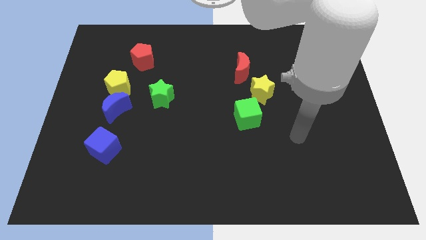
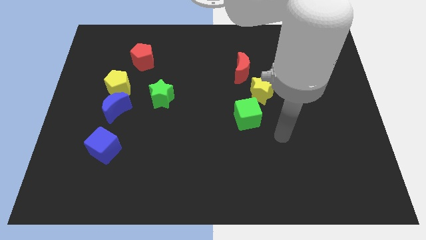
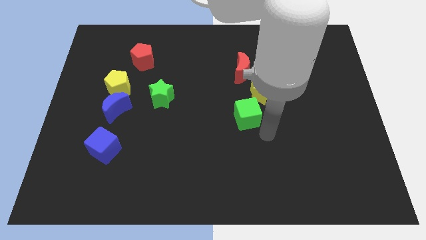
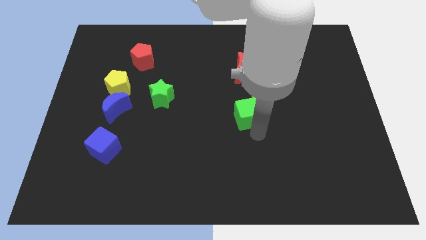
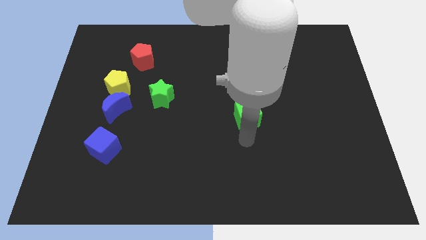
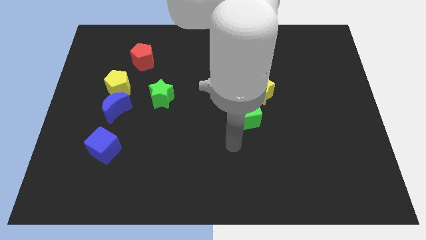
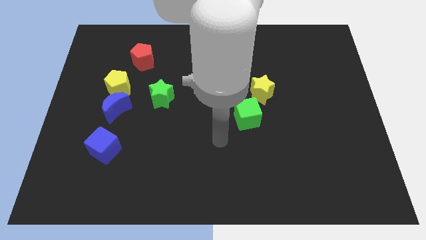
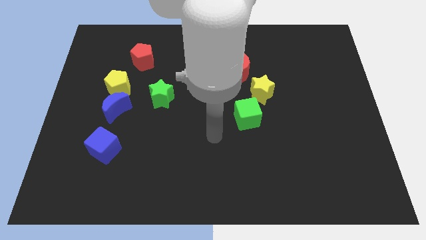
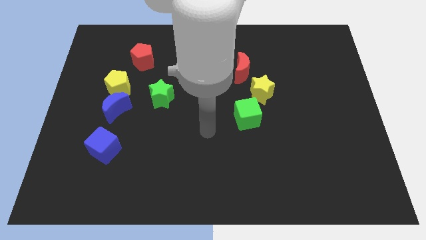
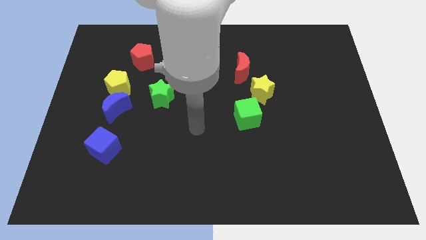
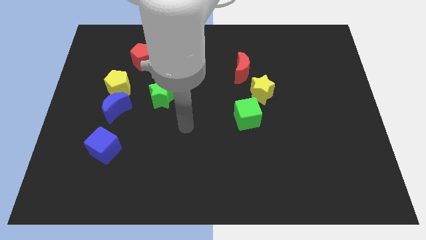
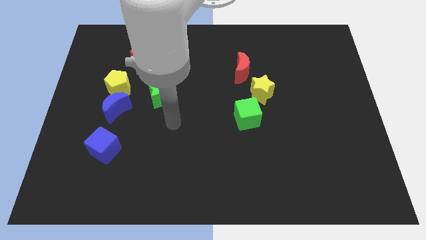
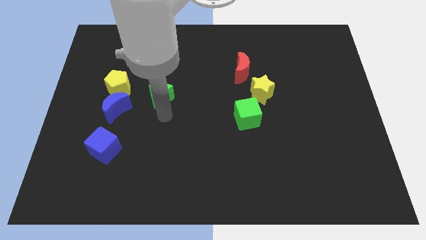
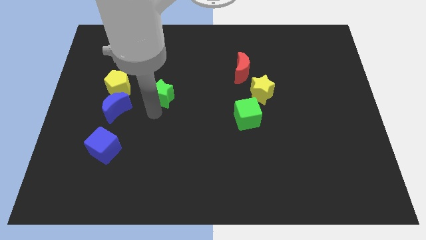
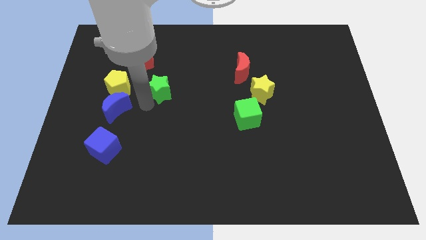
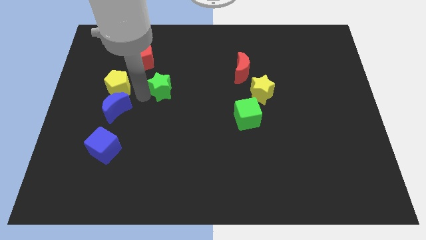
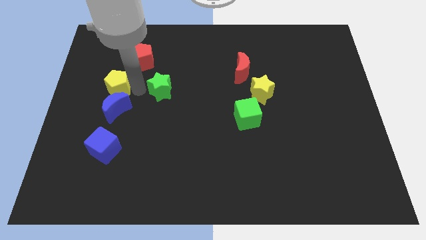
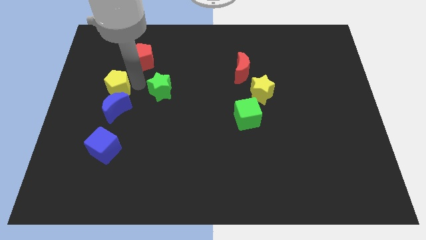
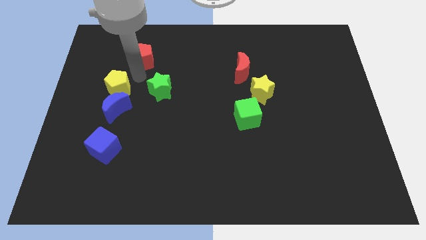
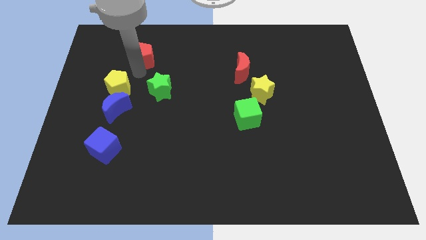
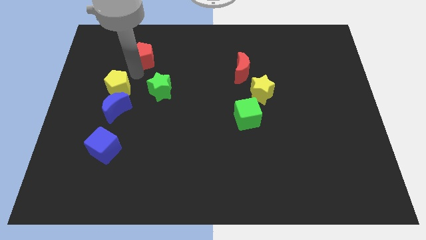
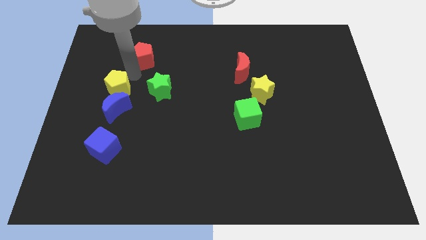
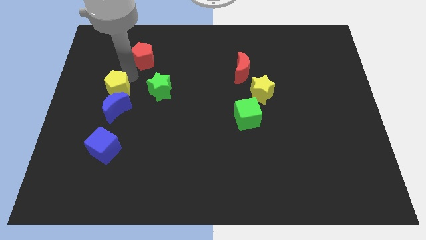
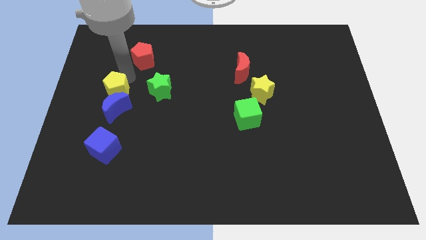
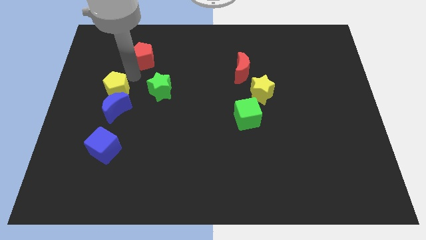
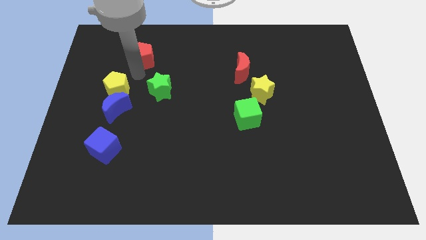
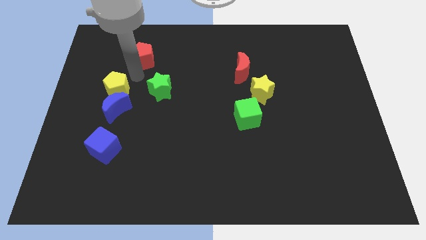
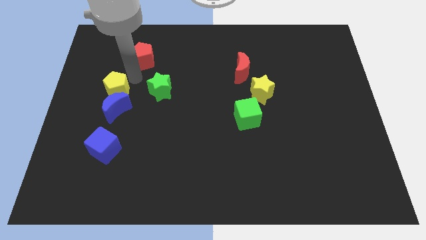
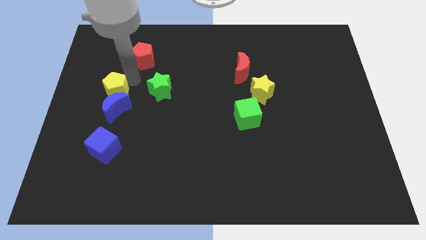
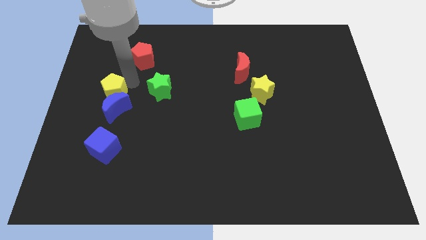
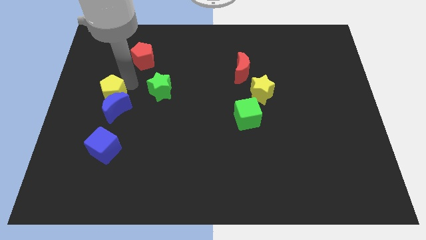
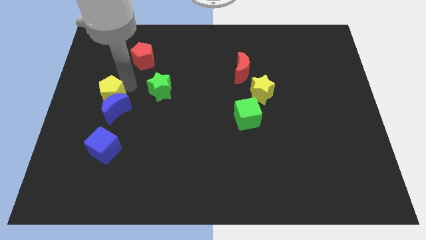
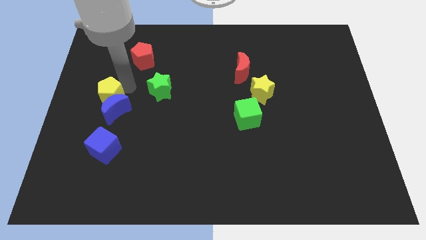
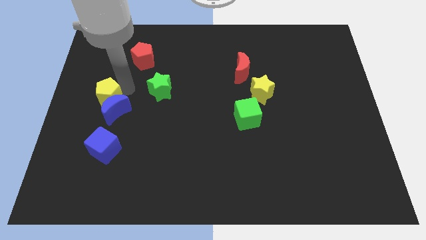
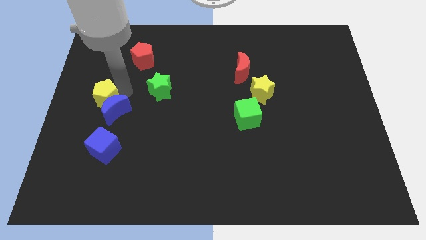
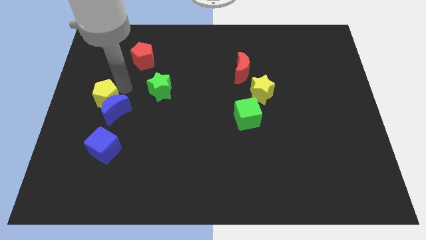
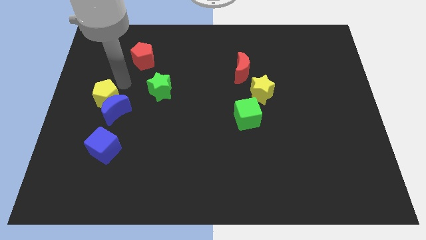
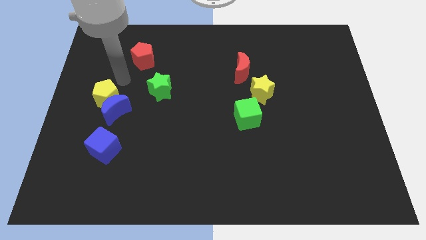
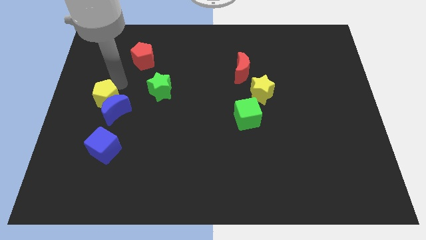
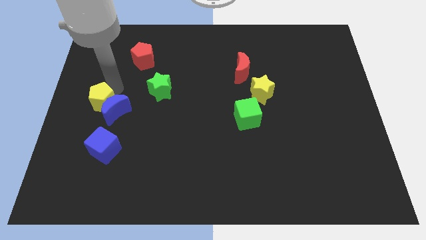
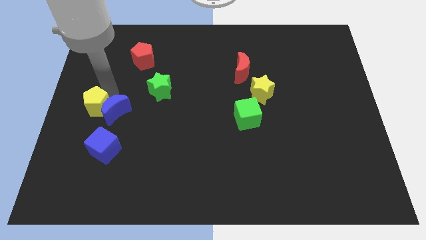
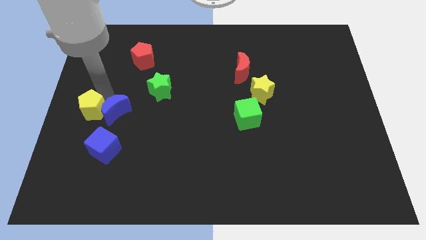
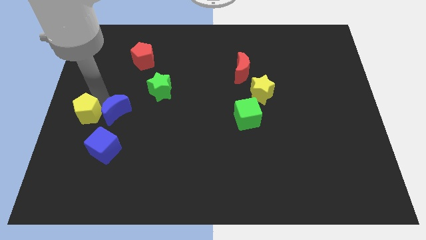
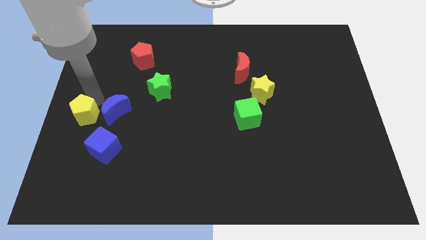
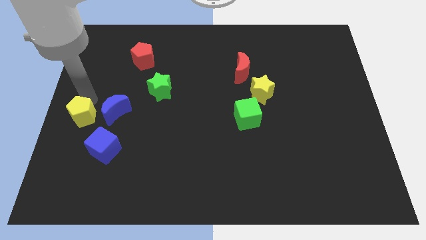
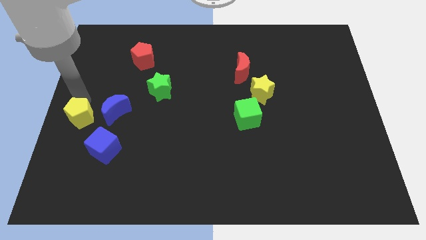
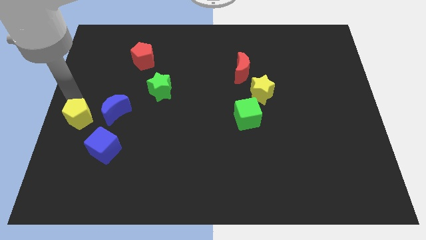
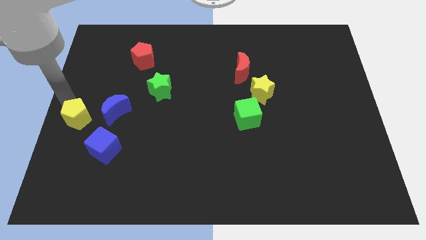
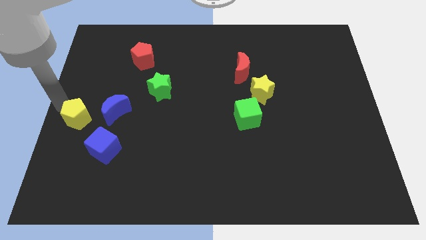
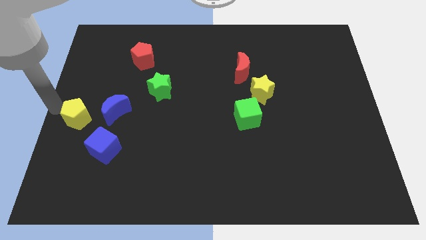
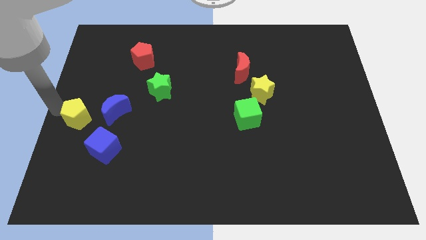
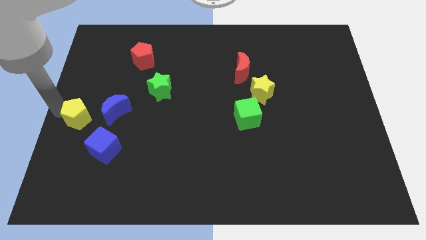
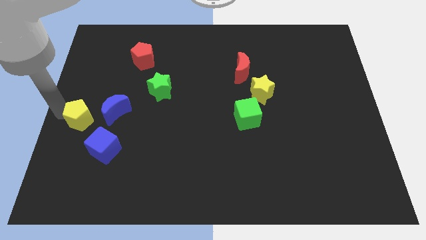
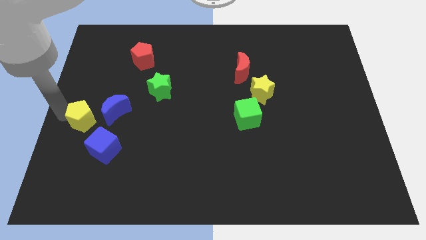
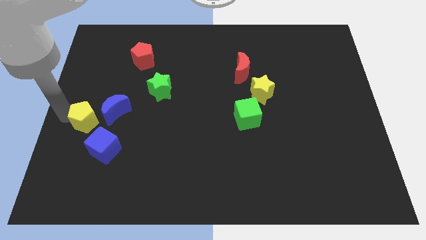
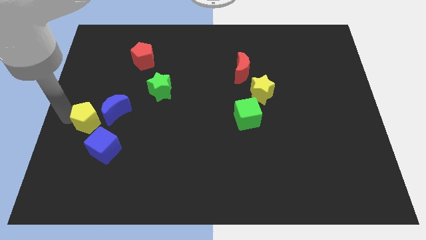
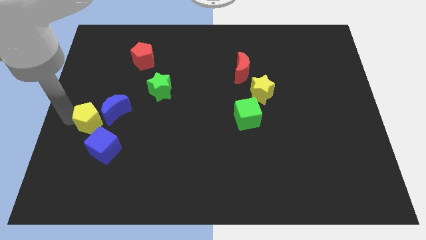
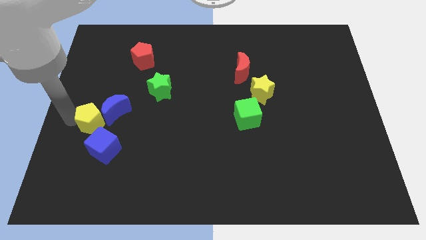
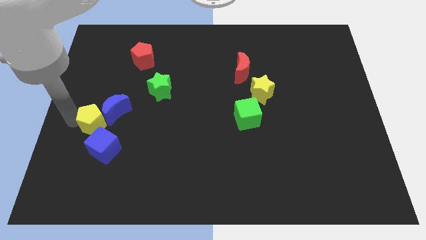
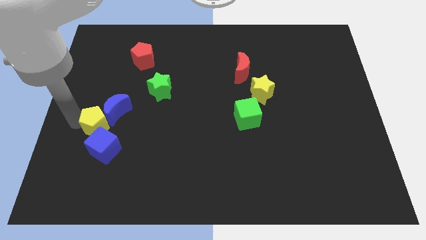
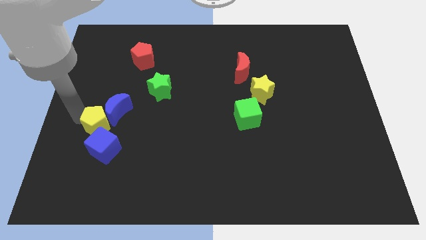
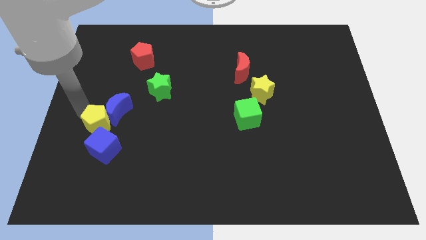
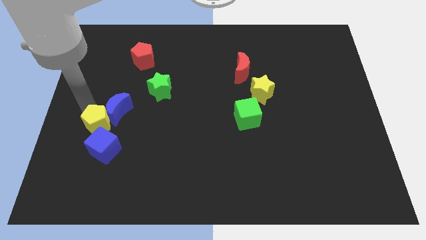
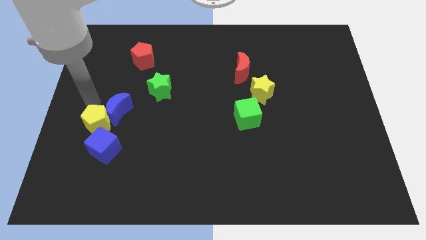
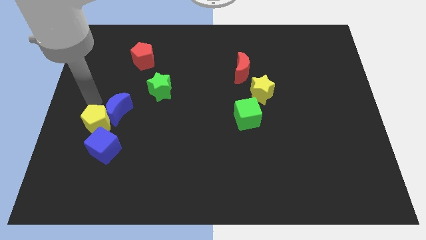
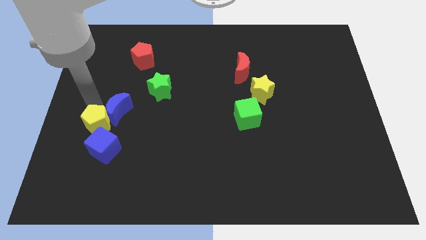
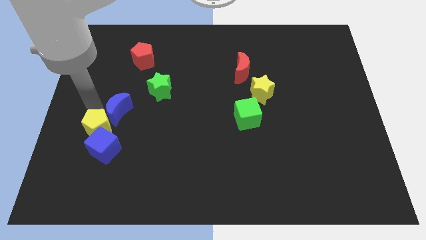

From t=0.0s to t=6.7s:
push the yellow pentagon to the blue cube

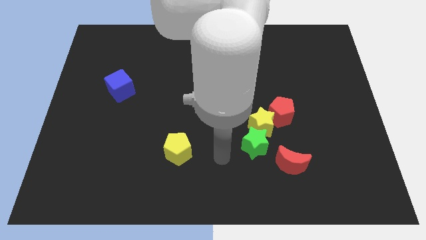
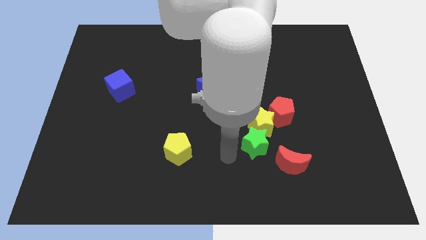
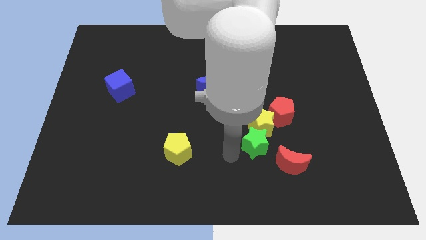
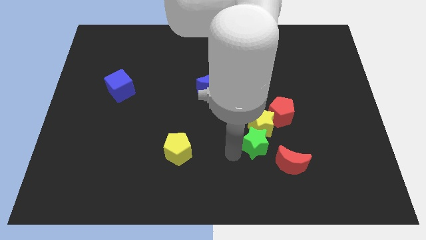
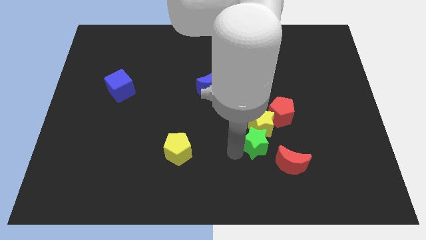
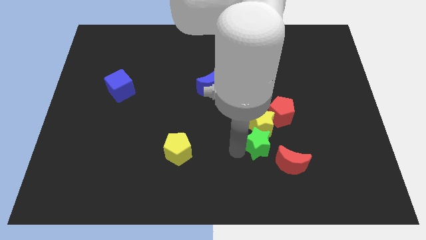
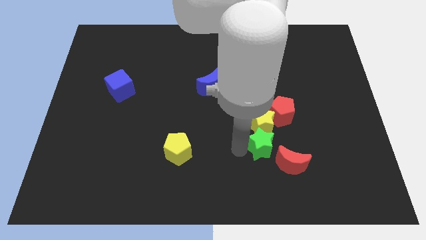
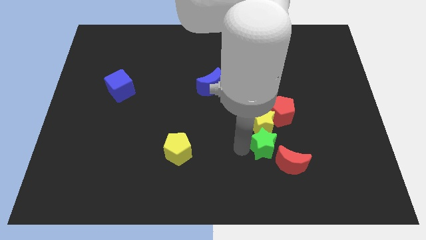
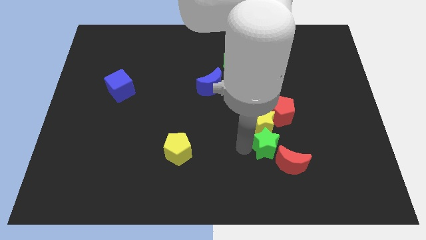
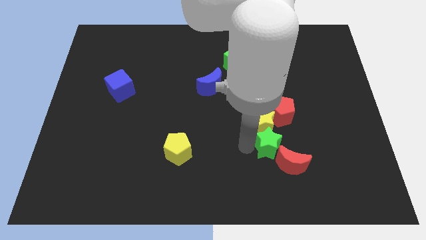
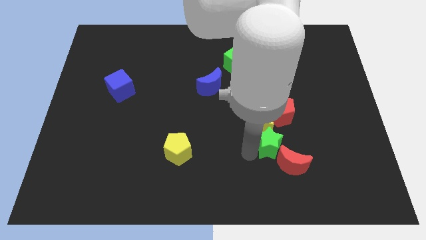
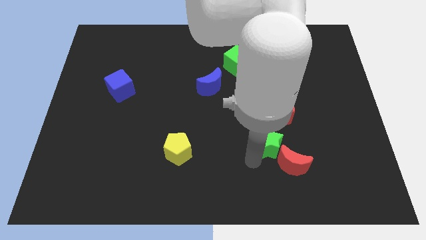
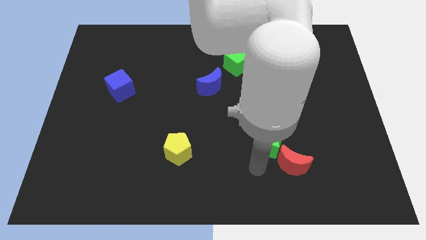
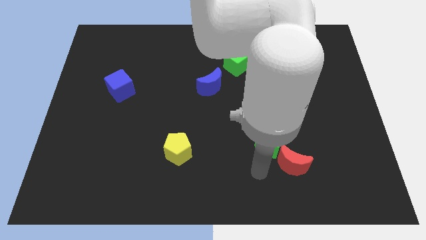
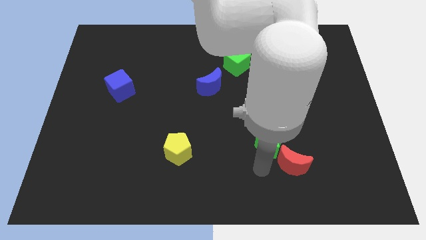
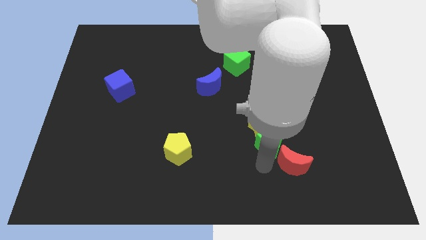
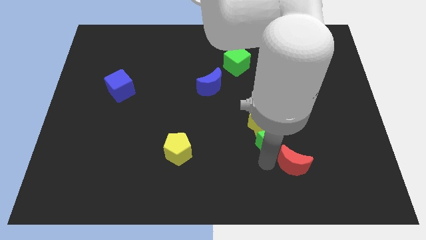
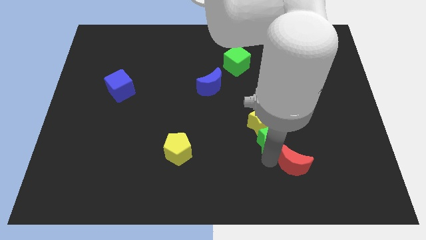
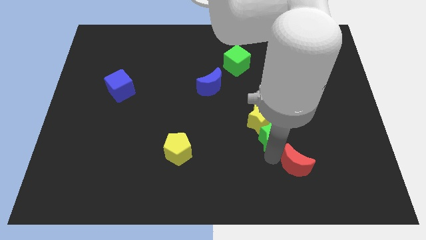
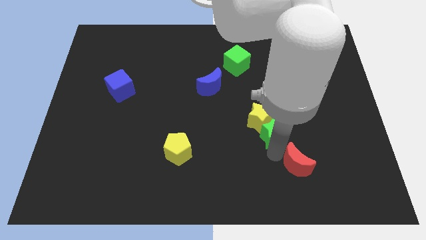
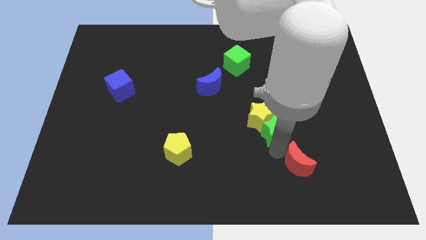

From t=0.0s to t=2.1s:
put the green star close to the red pentagon
